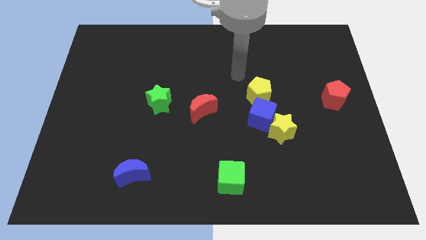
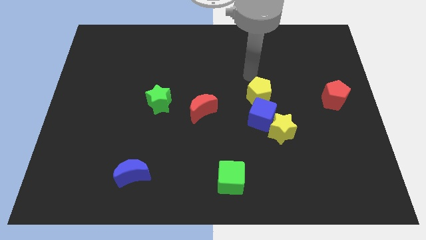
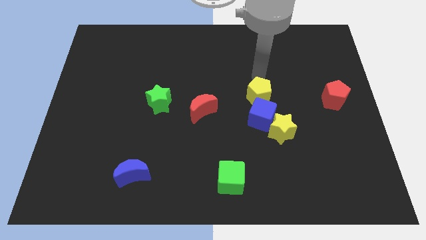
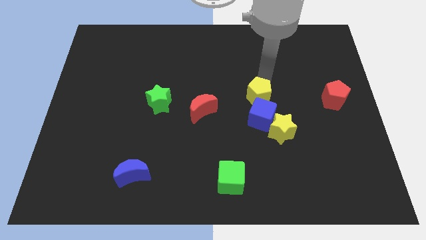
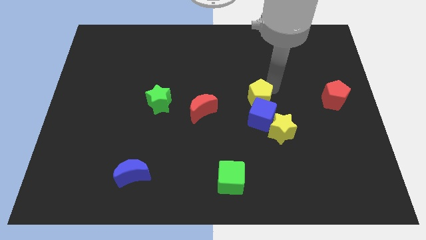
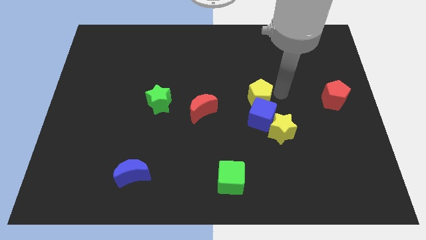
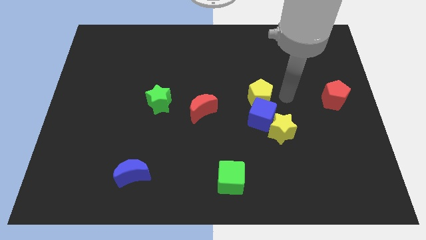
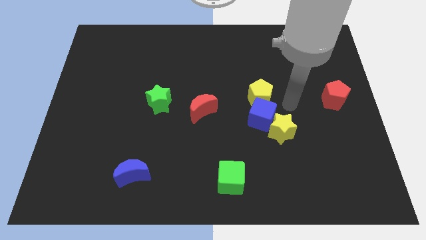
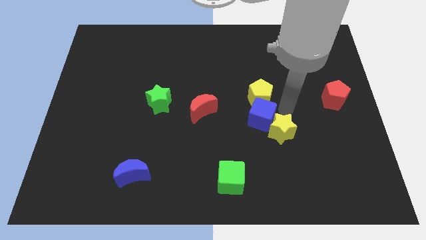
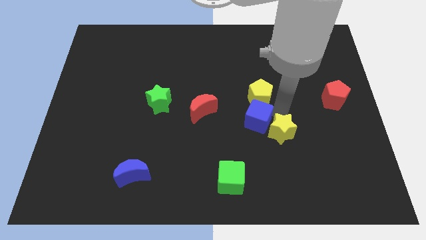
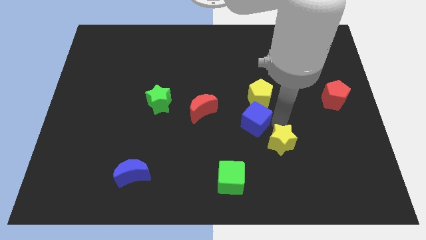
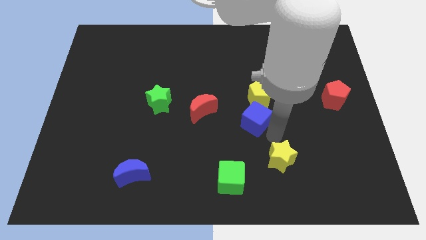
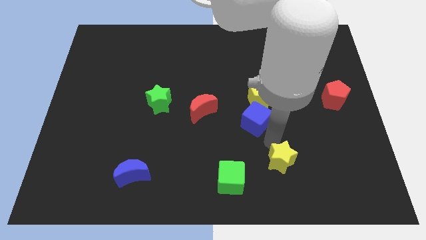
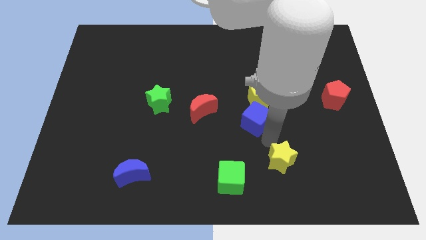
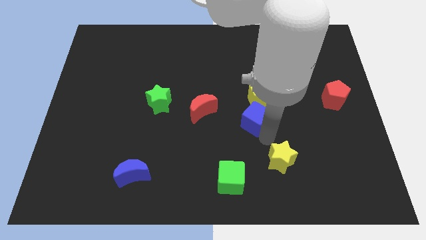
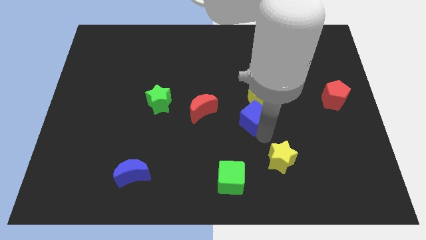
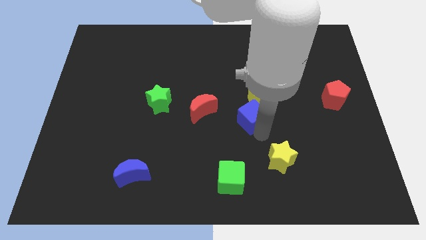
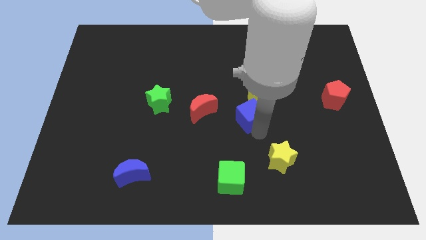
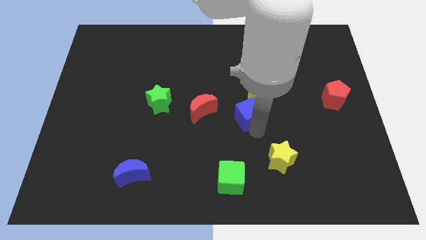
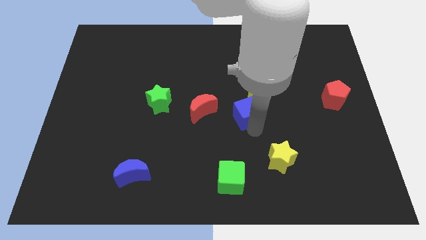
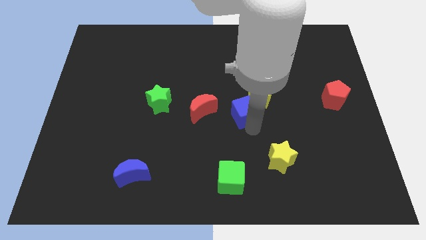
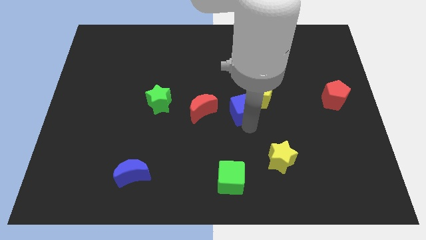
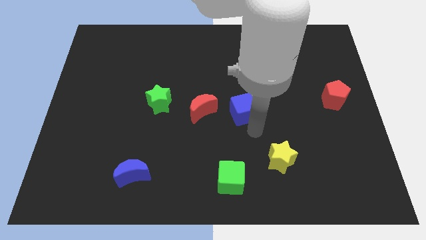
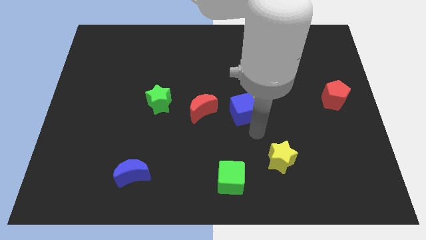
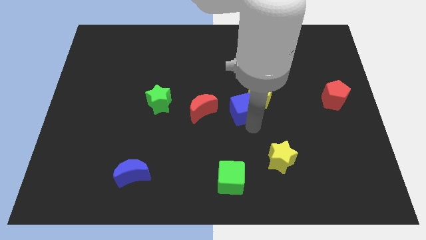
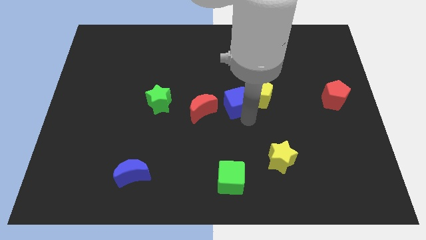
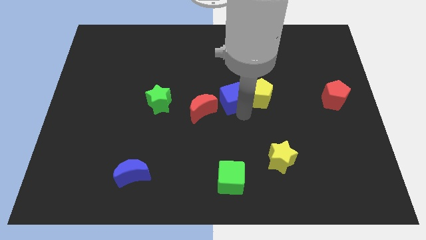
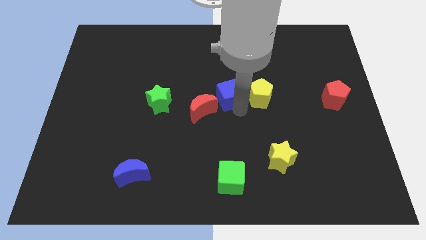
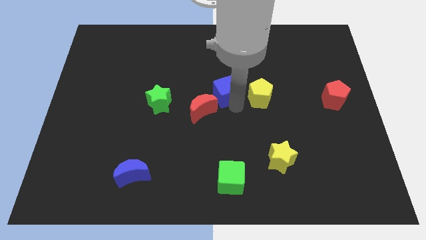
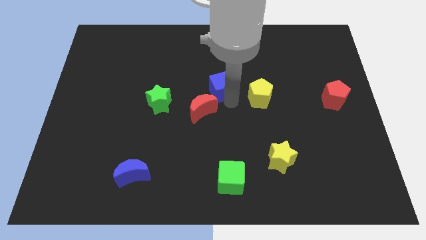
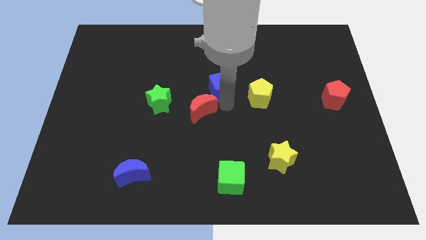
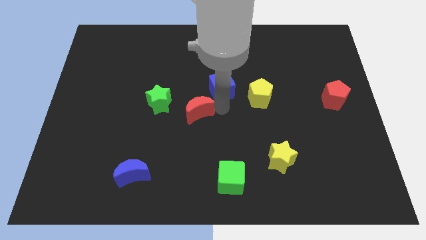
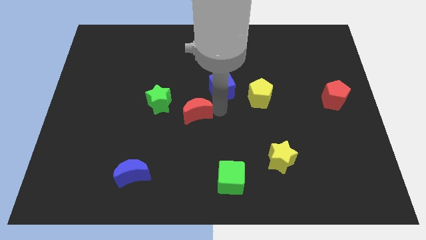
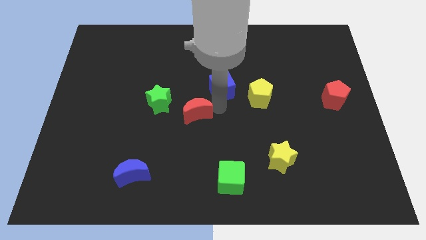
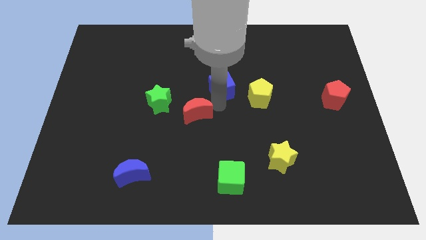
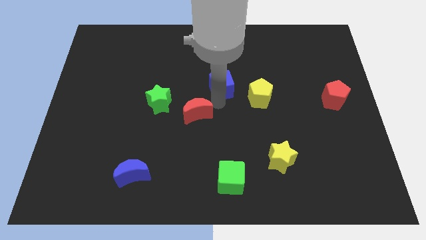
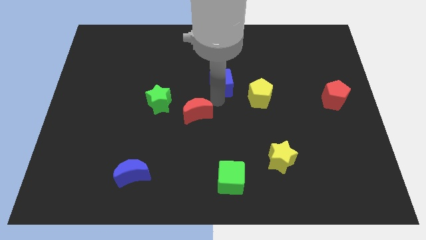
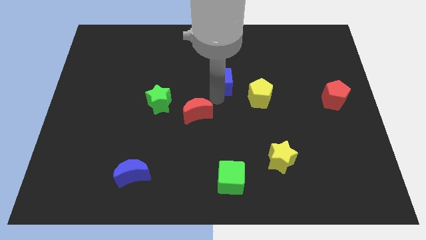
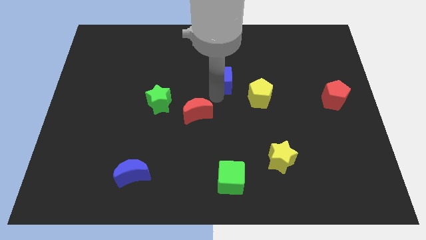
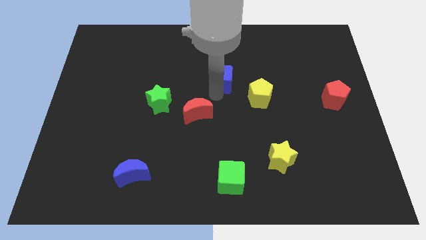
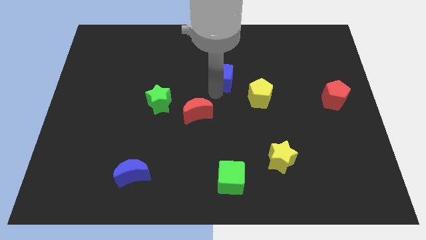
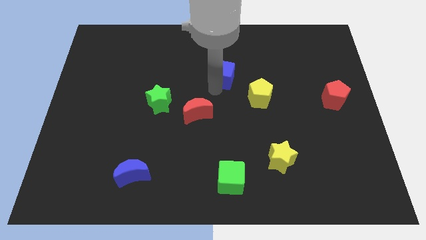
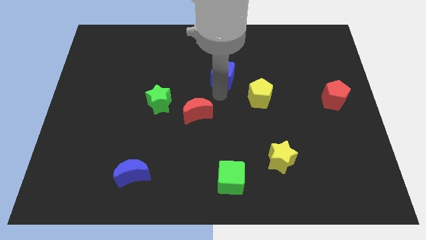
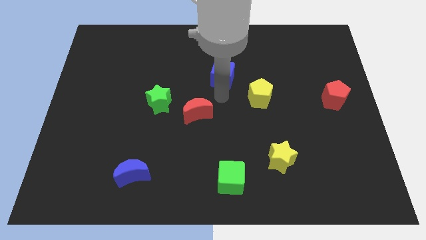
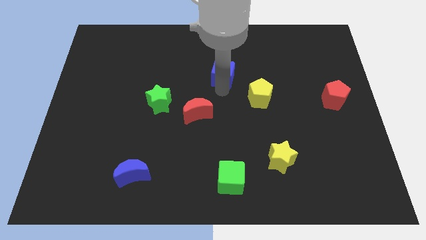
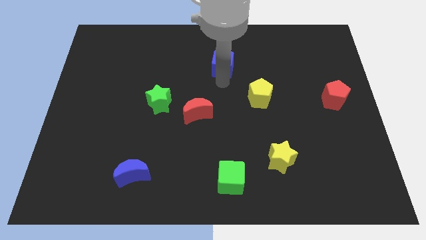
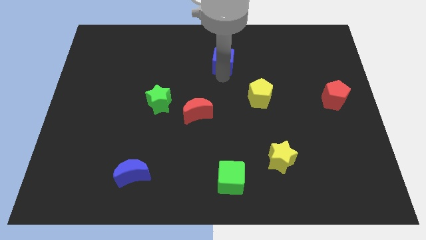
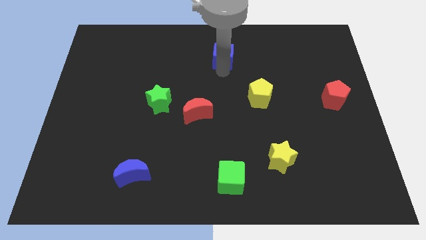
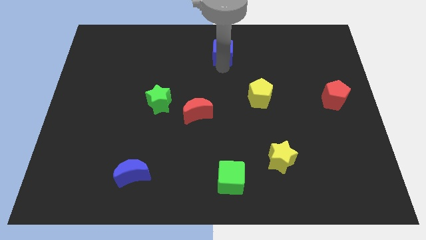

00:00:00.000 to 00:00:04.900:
move the blue cube to the towards your base

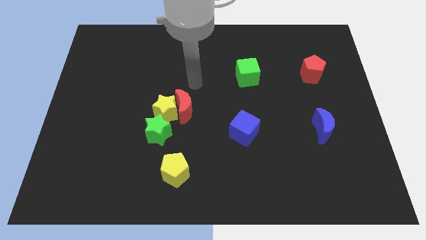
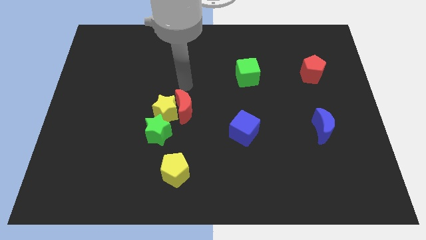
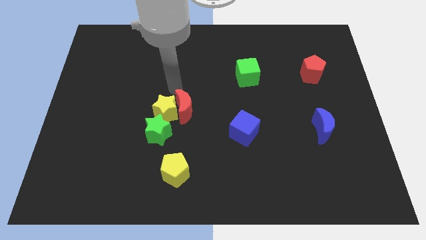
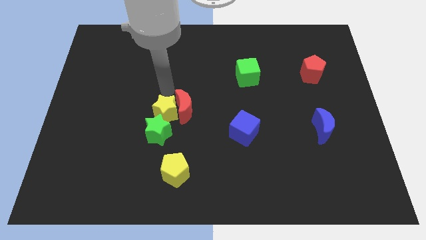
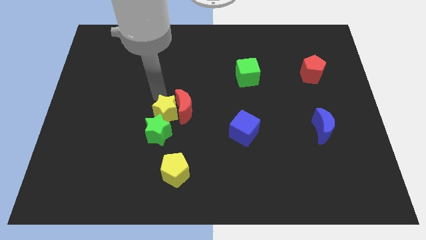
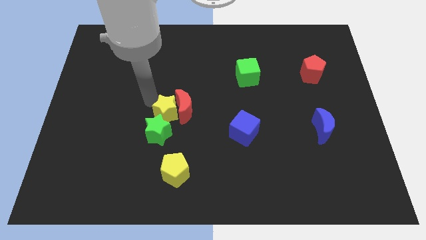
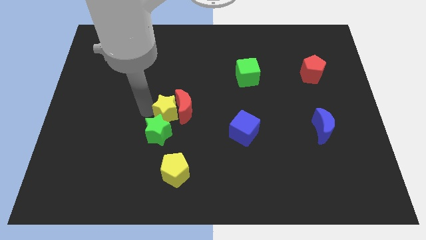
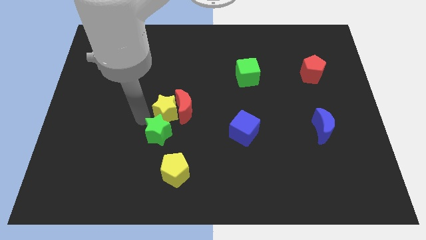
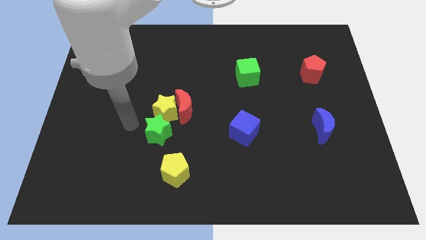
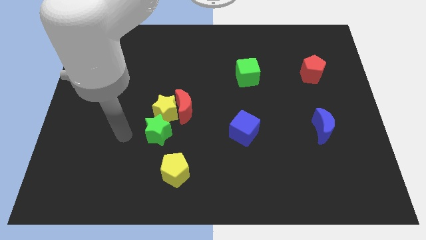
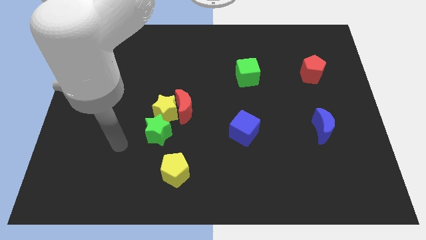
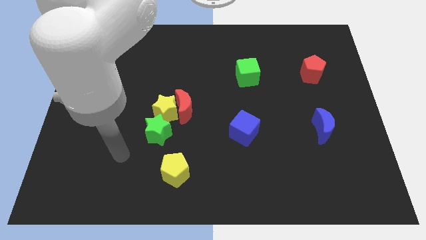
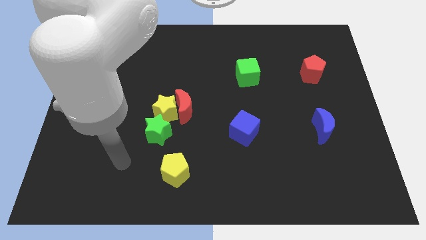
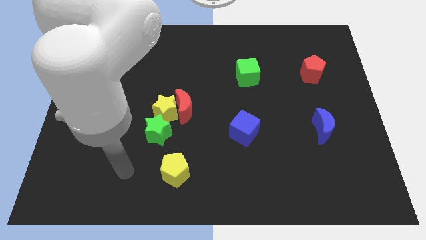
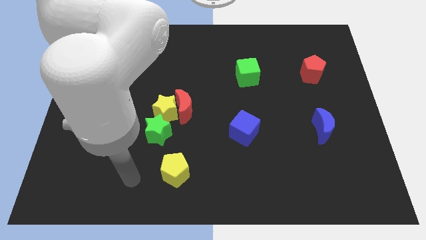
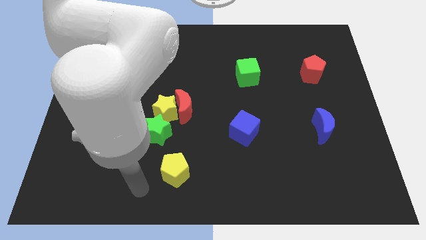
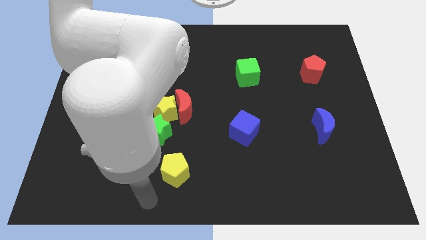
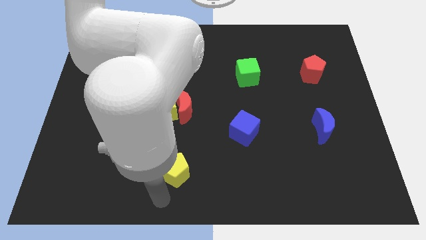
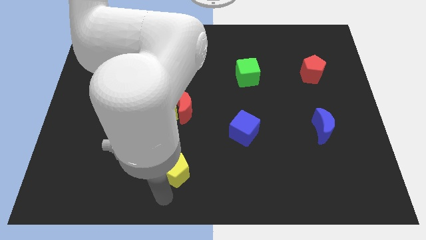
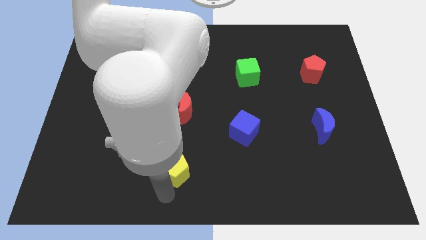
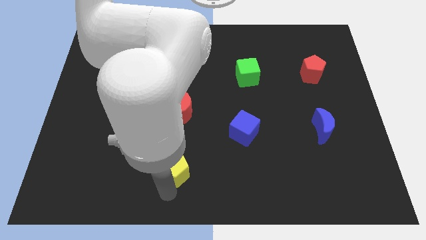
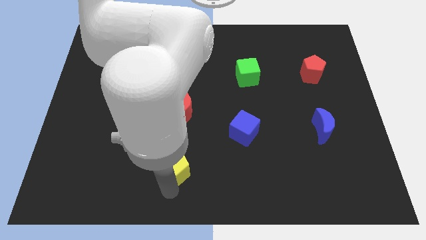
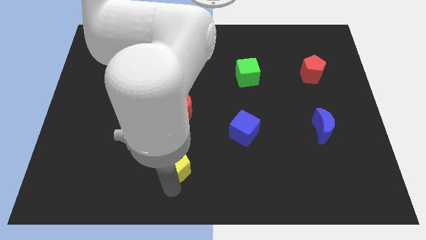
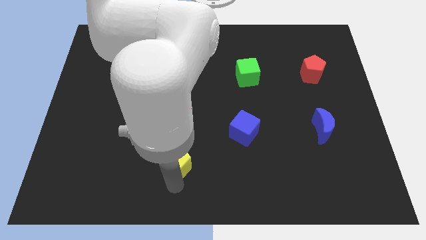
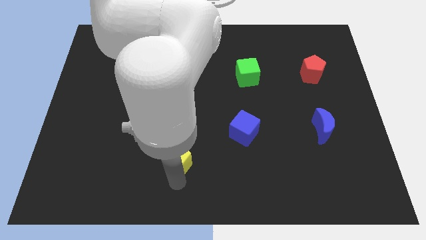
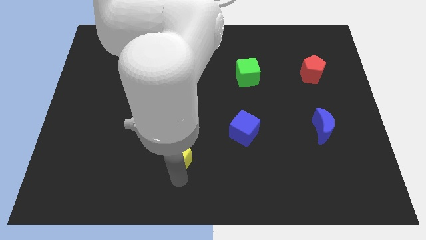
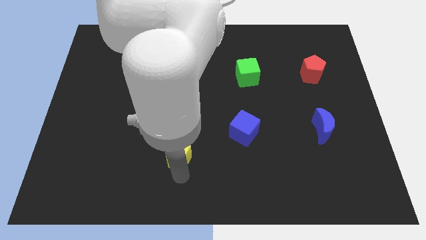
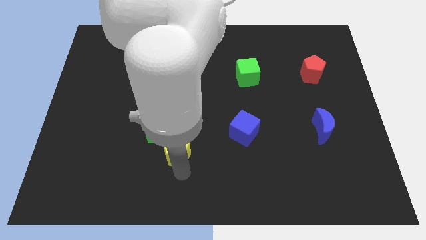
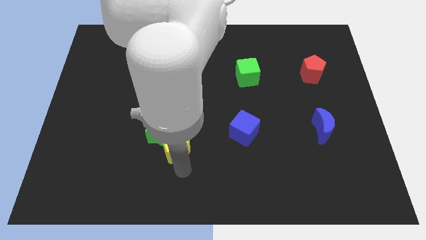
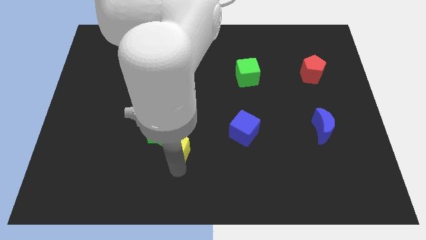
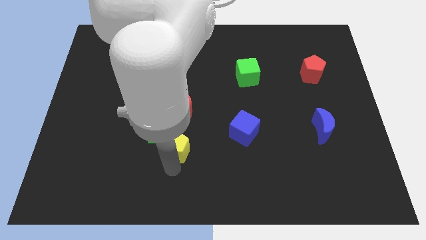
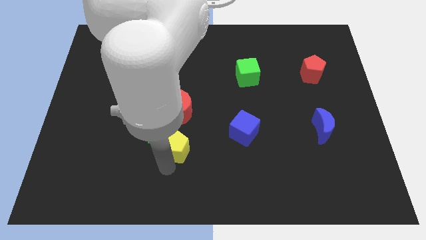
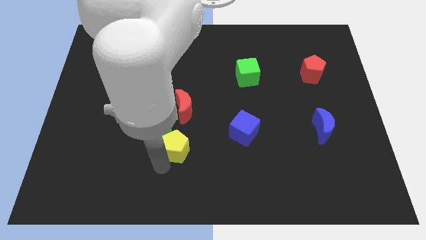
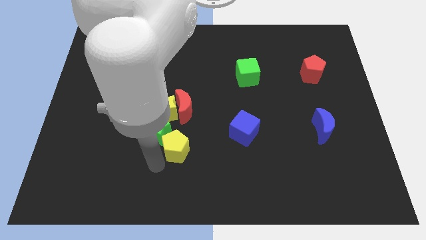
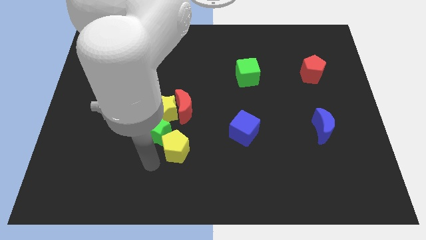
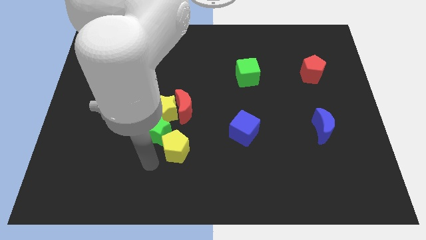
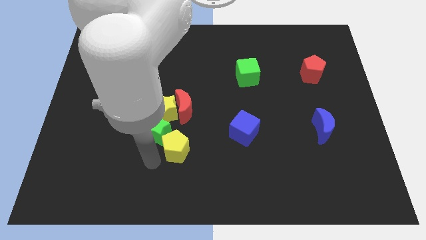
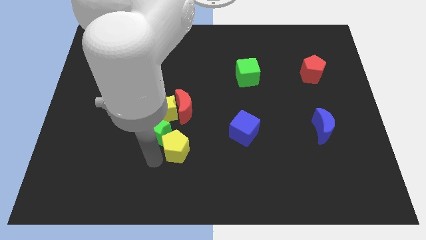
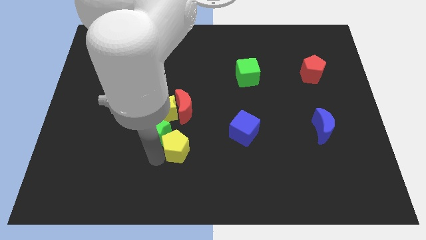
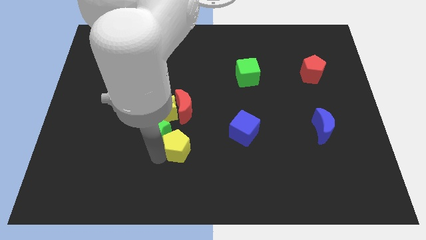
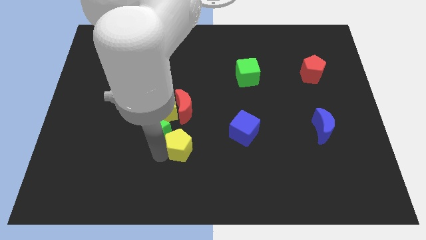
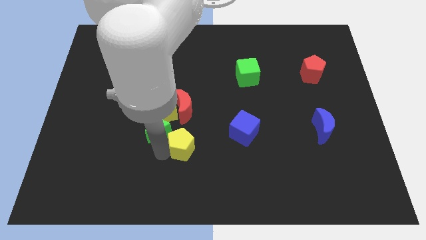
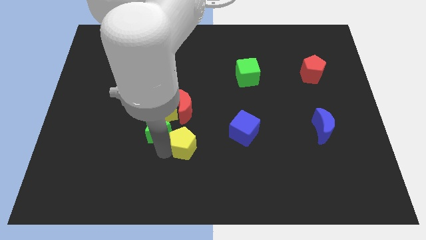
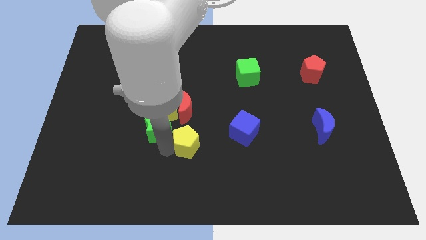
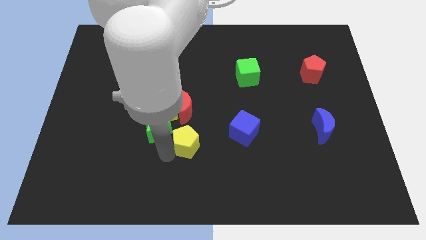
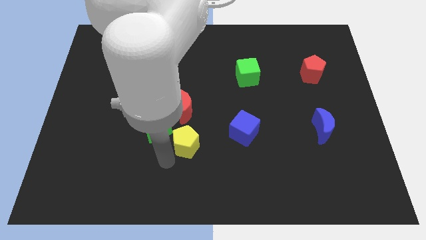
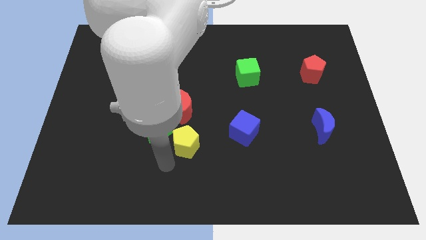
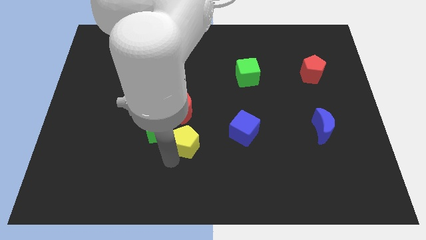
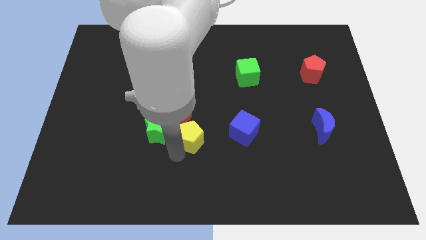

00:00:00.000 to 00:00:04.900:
slide the yellow pentagon to the middle of the board
